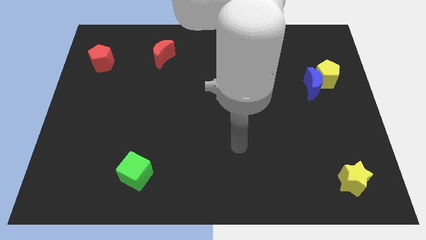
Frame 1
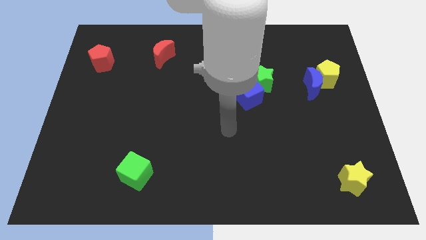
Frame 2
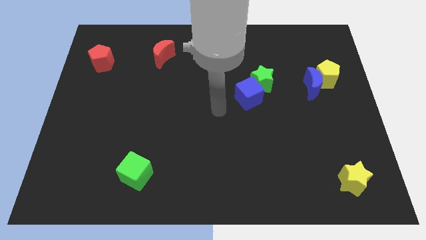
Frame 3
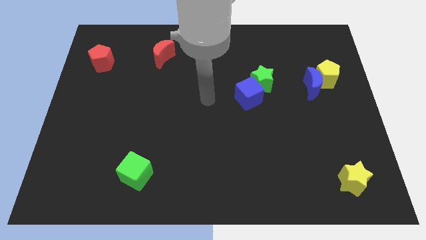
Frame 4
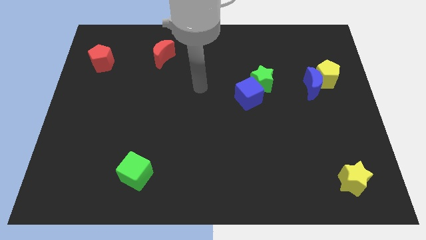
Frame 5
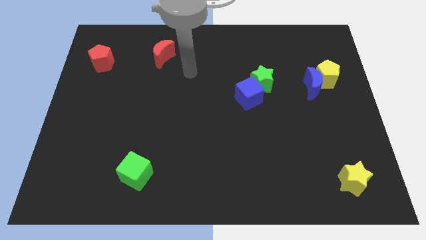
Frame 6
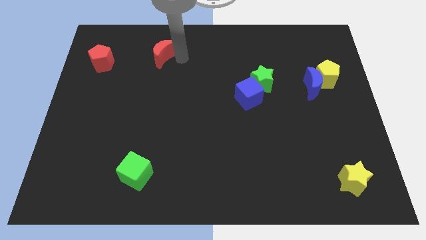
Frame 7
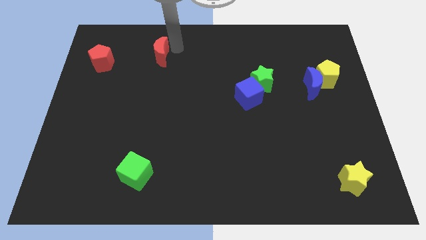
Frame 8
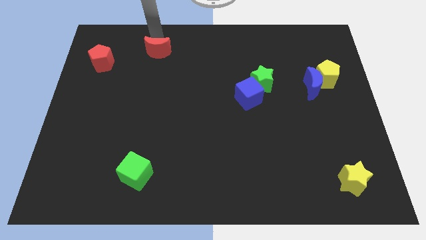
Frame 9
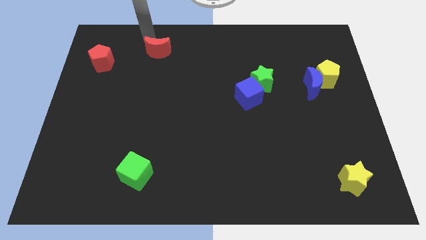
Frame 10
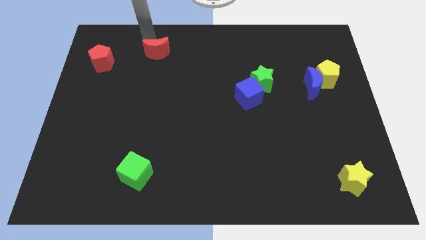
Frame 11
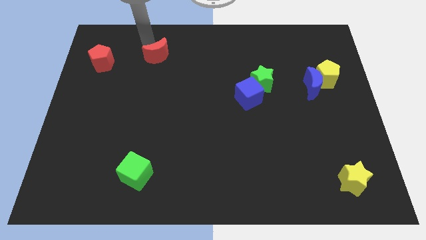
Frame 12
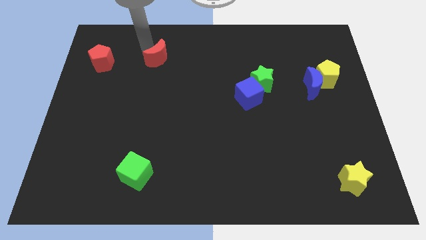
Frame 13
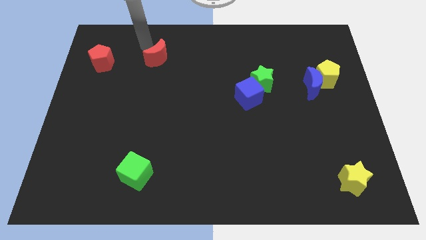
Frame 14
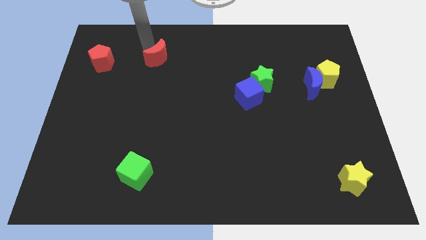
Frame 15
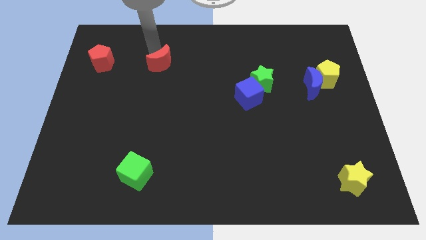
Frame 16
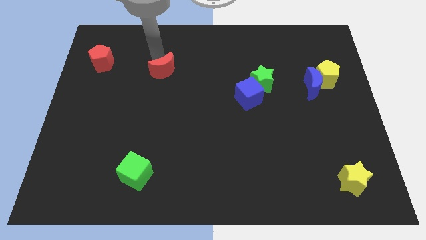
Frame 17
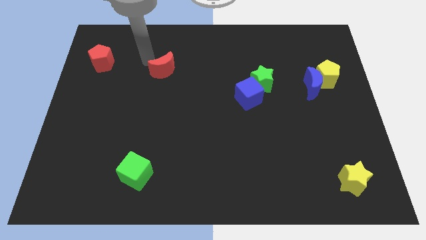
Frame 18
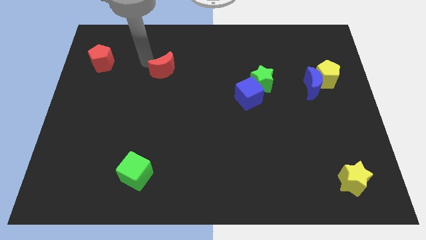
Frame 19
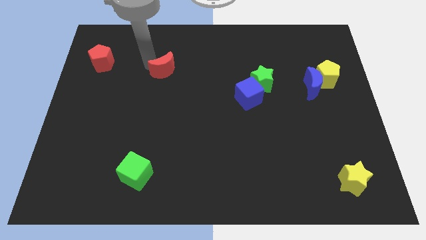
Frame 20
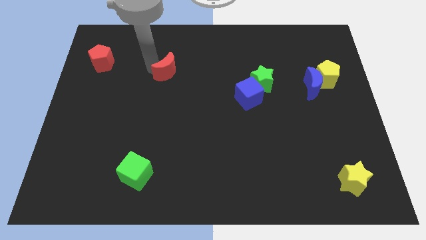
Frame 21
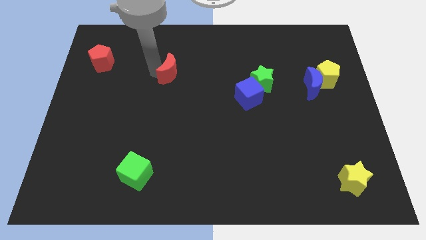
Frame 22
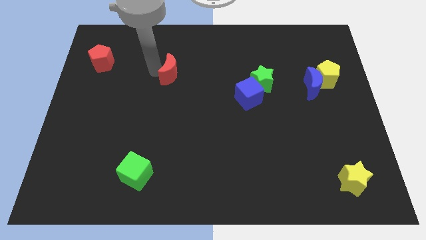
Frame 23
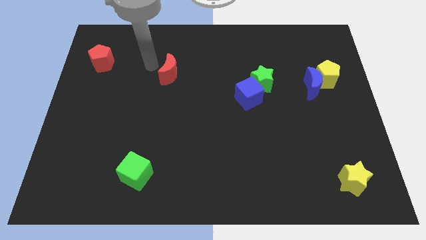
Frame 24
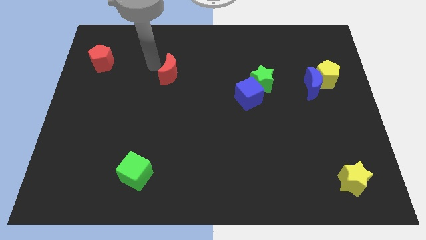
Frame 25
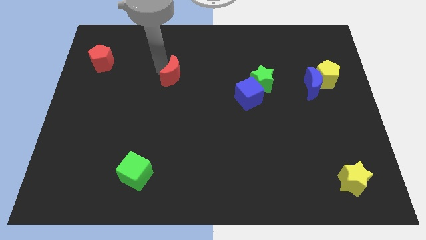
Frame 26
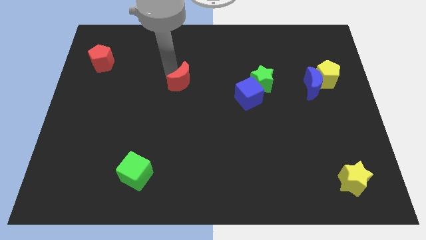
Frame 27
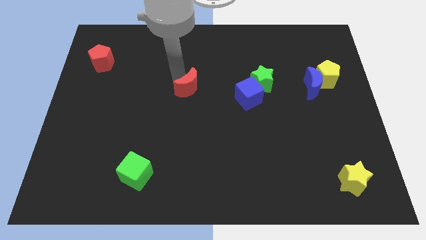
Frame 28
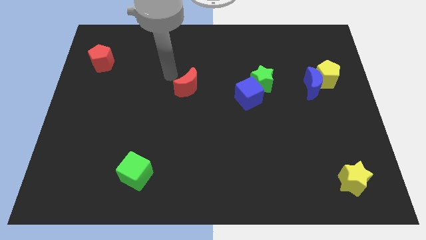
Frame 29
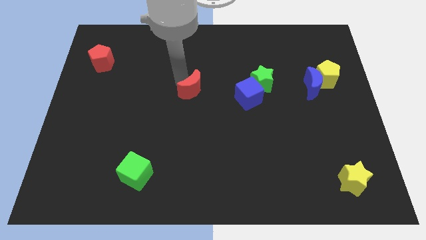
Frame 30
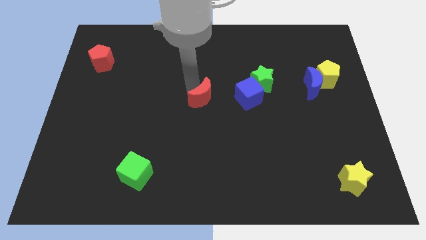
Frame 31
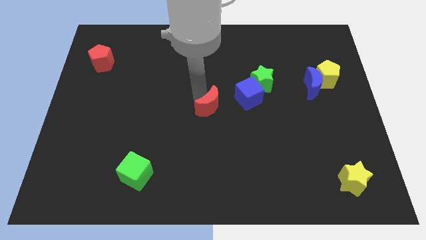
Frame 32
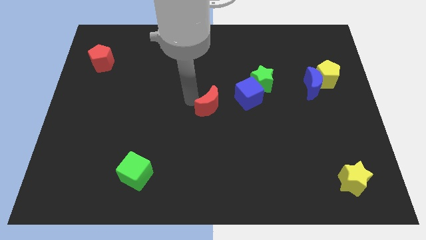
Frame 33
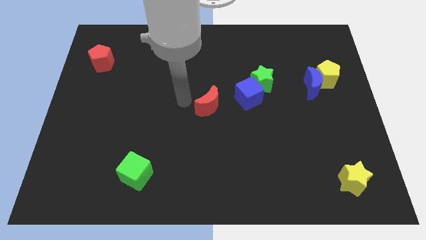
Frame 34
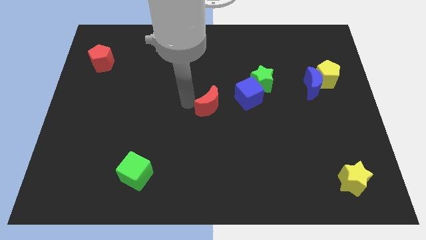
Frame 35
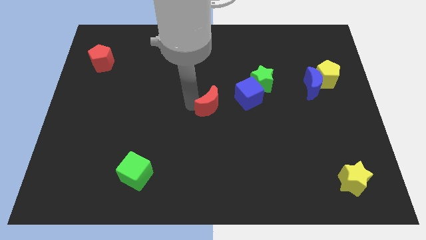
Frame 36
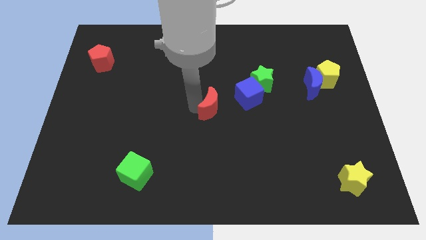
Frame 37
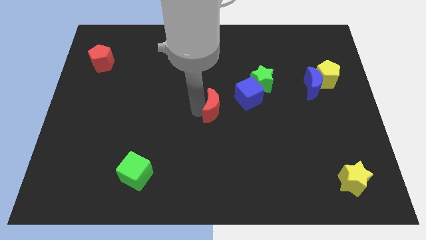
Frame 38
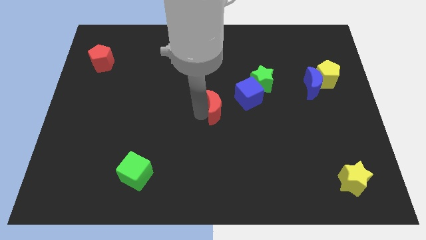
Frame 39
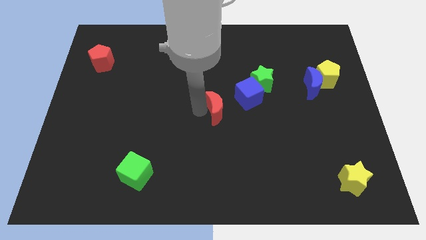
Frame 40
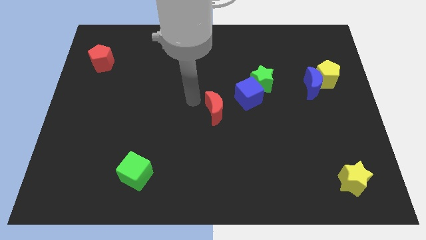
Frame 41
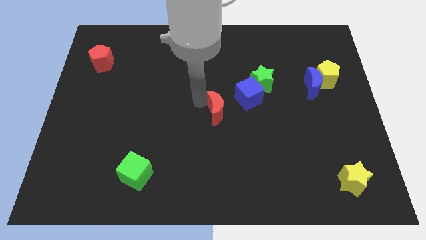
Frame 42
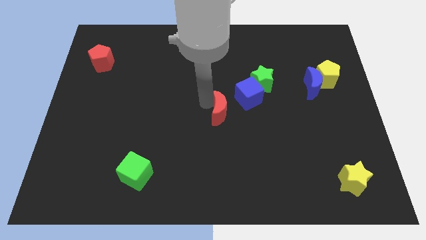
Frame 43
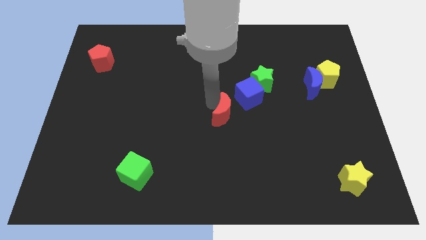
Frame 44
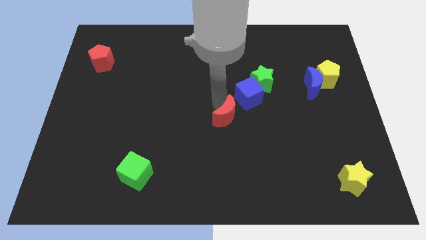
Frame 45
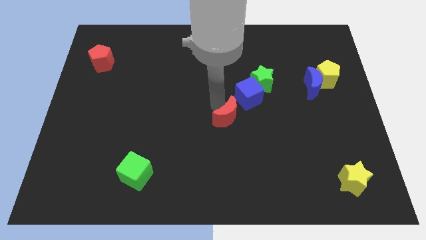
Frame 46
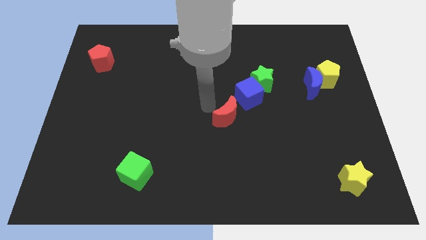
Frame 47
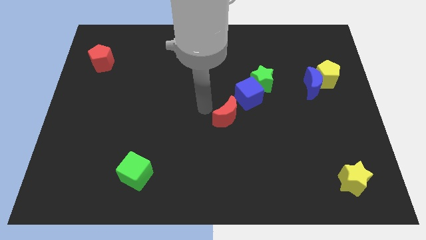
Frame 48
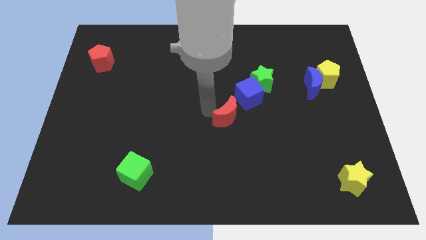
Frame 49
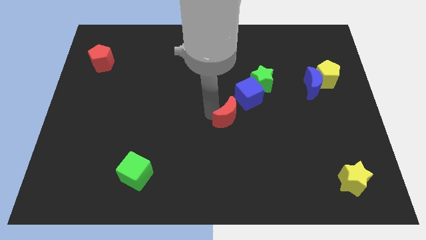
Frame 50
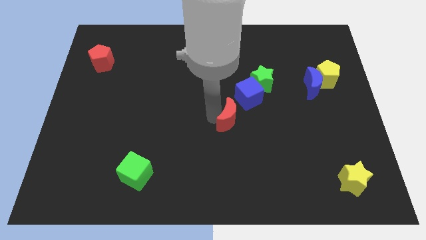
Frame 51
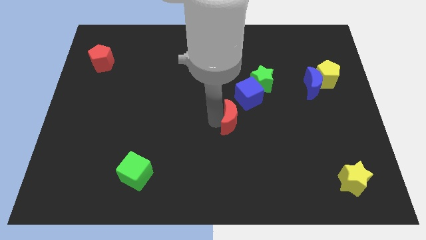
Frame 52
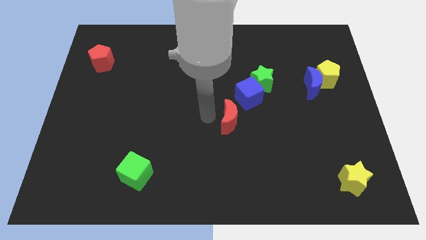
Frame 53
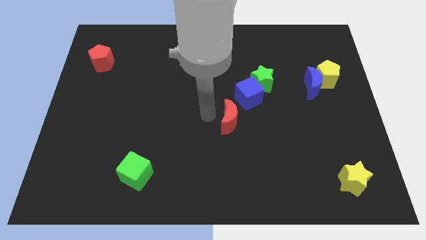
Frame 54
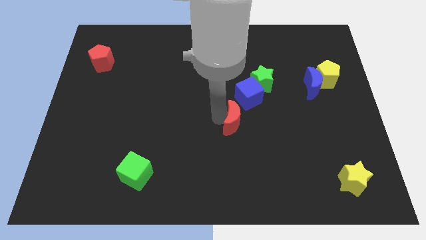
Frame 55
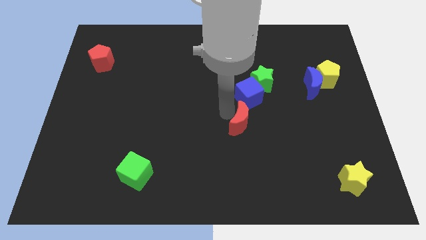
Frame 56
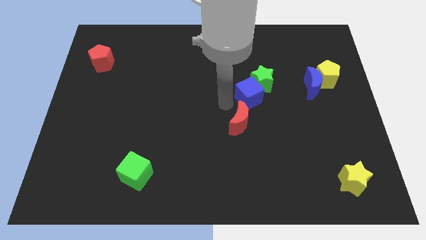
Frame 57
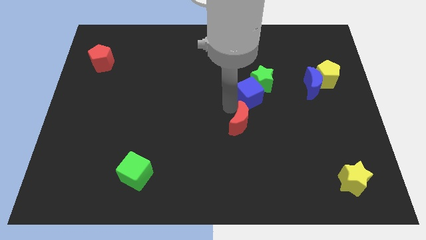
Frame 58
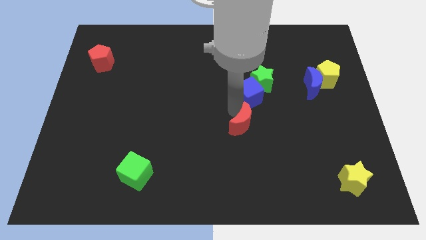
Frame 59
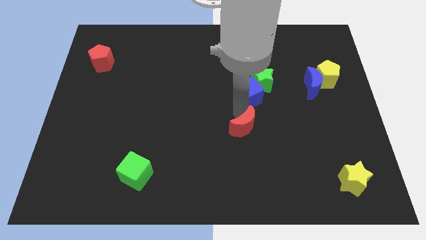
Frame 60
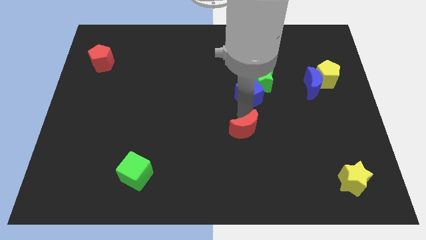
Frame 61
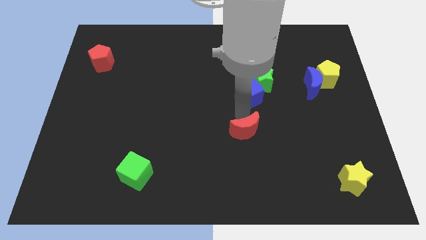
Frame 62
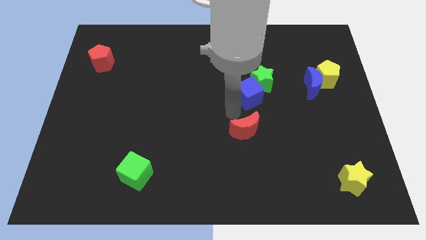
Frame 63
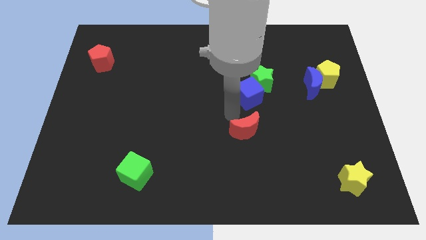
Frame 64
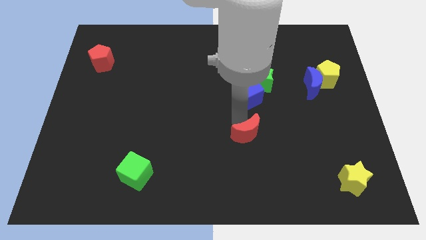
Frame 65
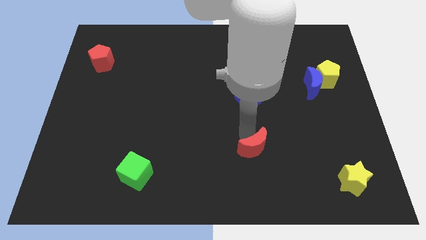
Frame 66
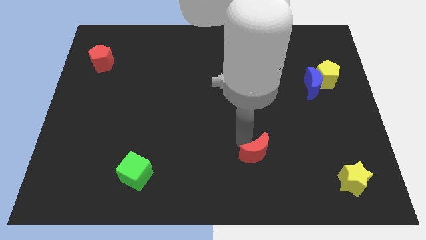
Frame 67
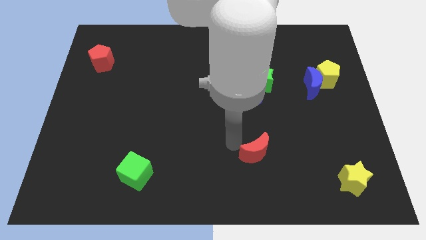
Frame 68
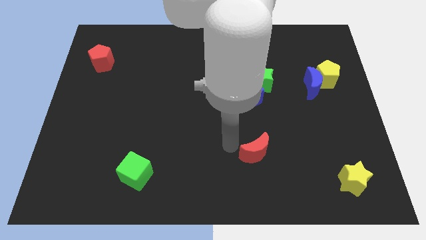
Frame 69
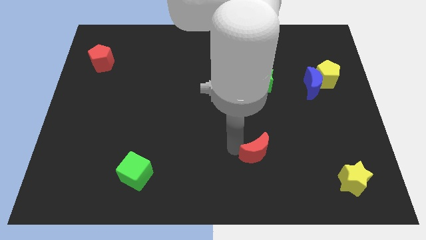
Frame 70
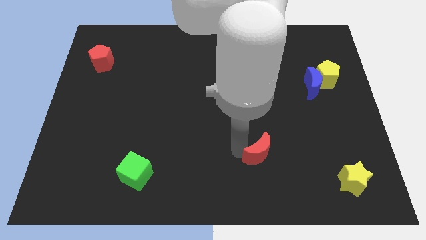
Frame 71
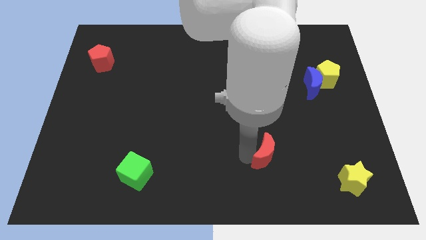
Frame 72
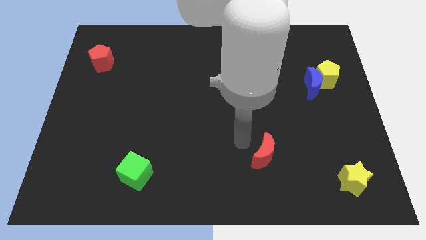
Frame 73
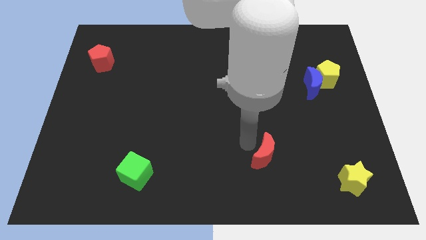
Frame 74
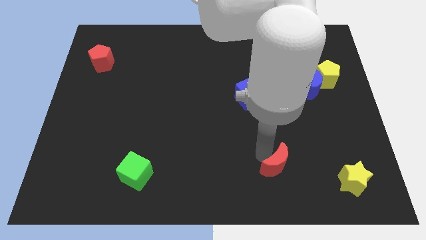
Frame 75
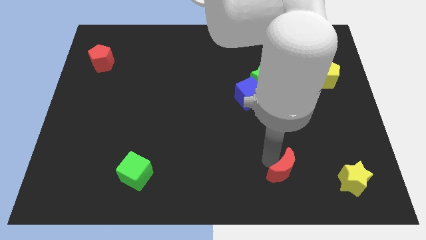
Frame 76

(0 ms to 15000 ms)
slide the red moon to the left side of the yellow star
